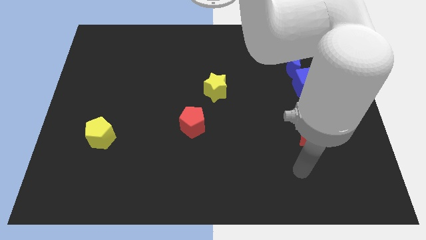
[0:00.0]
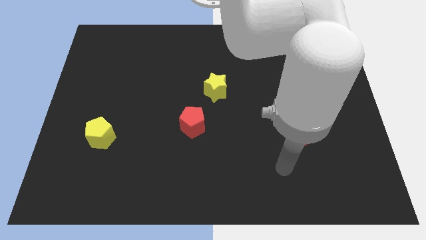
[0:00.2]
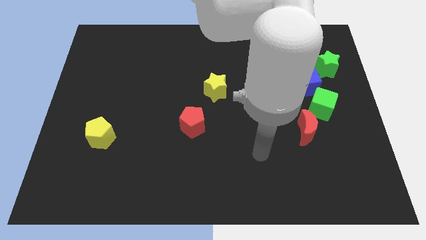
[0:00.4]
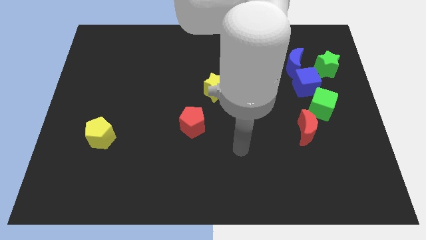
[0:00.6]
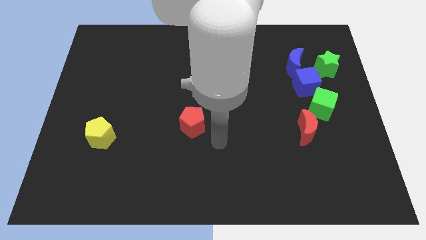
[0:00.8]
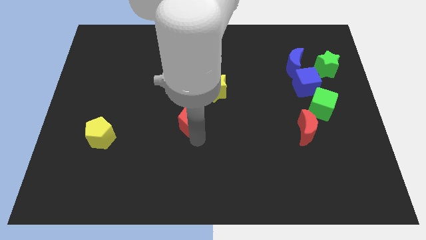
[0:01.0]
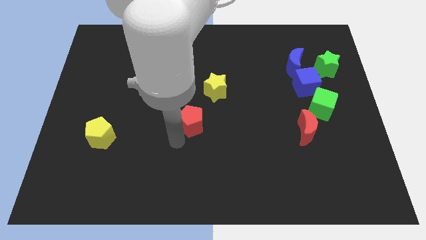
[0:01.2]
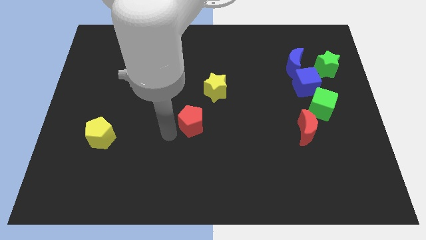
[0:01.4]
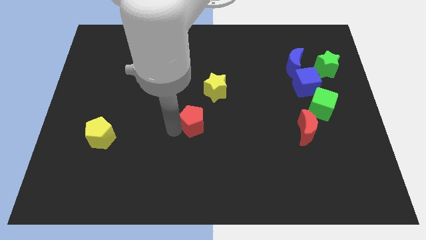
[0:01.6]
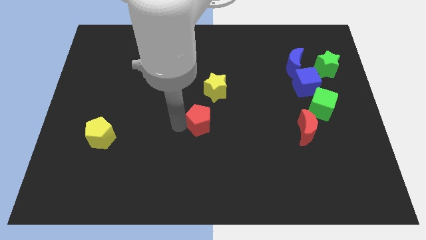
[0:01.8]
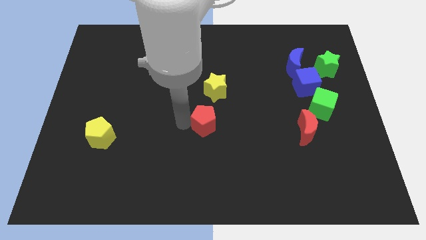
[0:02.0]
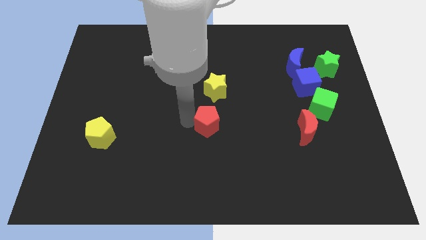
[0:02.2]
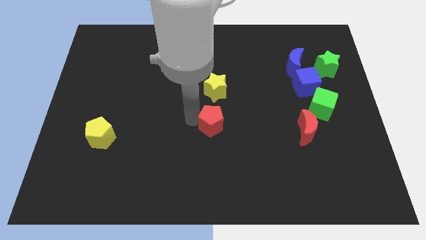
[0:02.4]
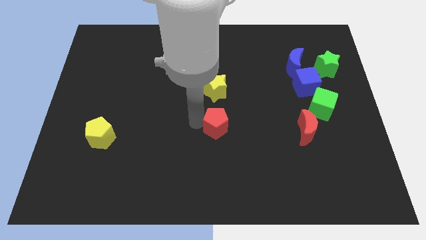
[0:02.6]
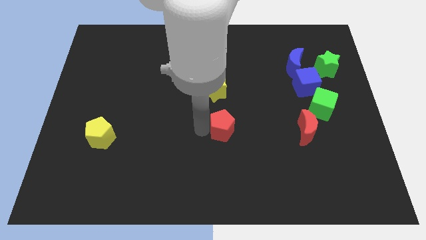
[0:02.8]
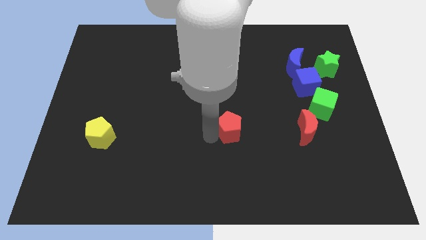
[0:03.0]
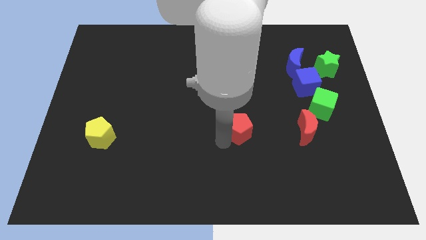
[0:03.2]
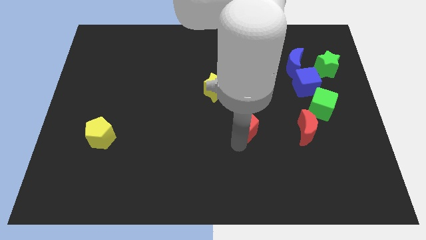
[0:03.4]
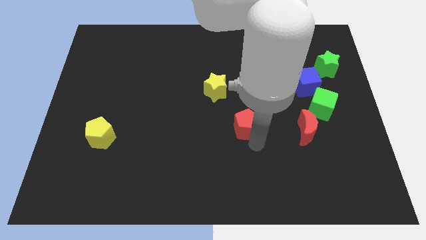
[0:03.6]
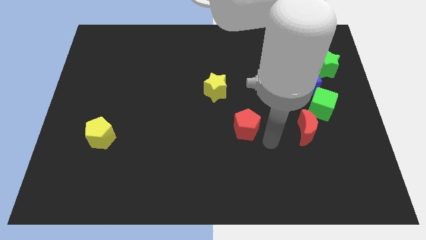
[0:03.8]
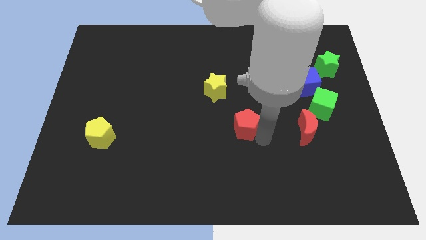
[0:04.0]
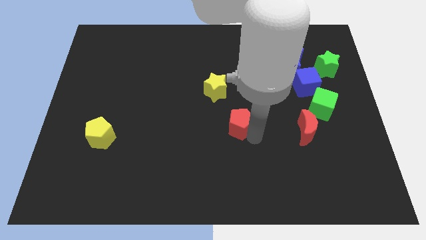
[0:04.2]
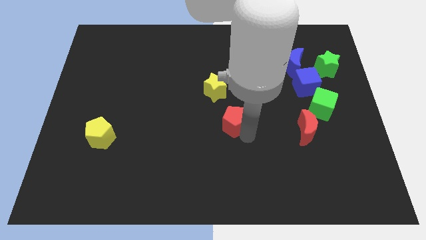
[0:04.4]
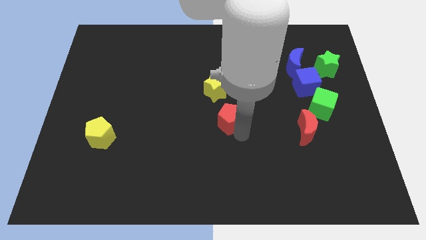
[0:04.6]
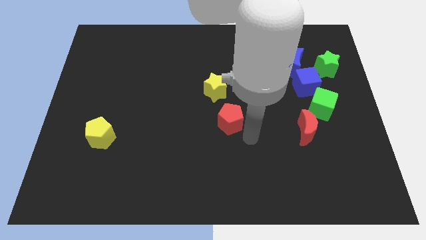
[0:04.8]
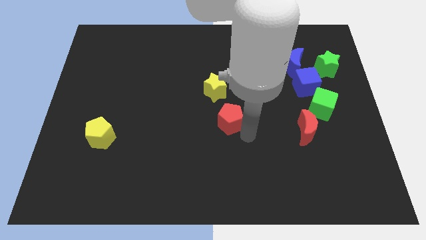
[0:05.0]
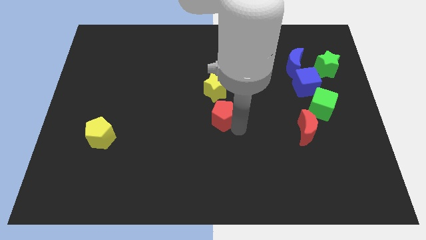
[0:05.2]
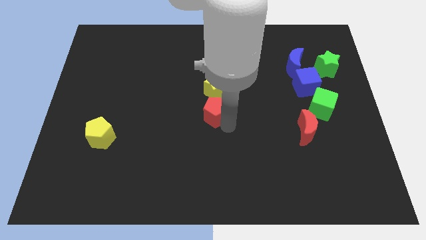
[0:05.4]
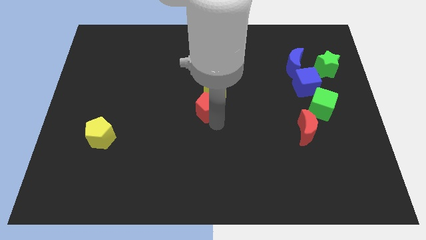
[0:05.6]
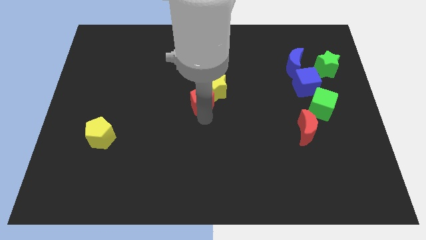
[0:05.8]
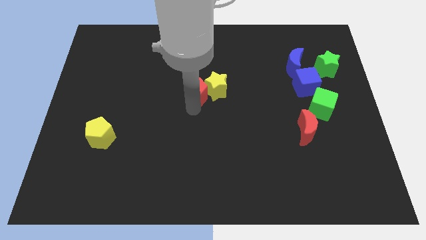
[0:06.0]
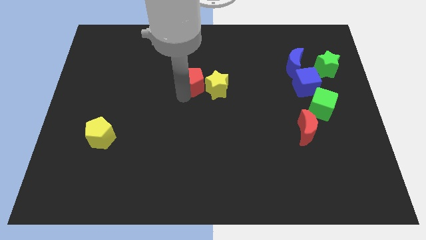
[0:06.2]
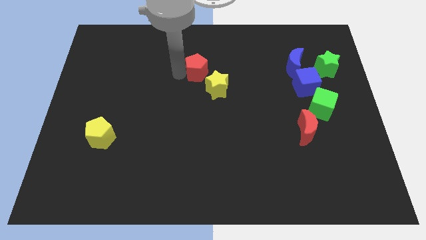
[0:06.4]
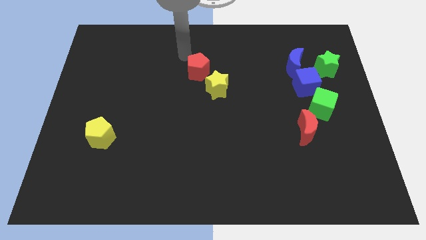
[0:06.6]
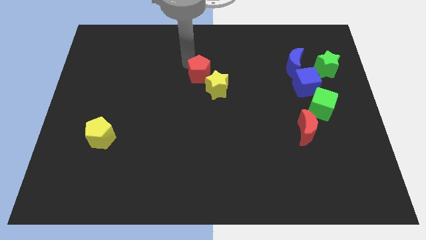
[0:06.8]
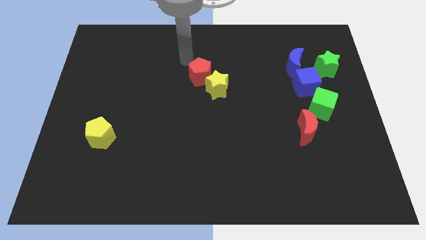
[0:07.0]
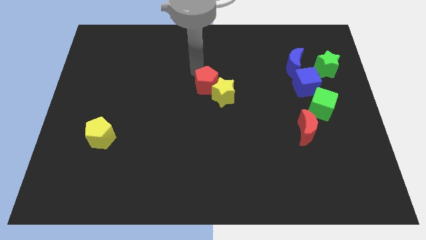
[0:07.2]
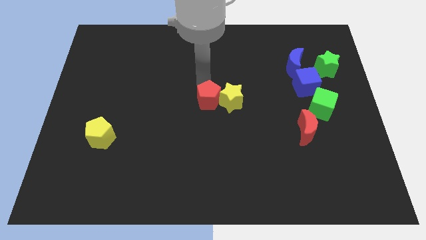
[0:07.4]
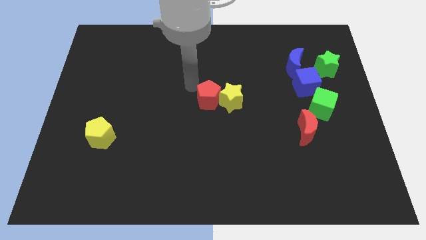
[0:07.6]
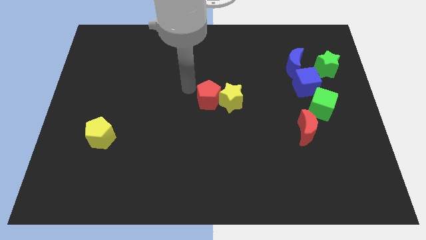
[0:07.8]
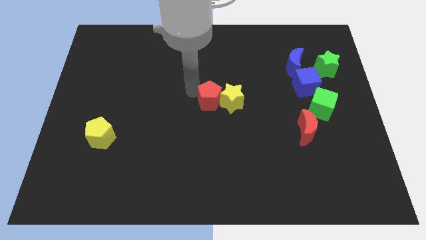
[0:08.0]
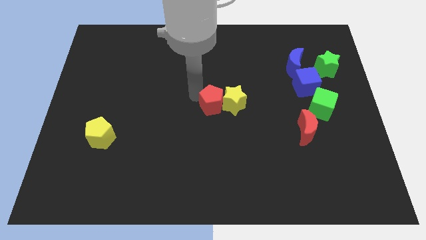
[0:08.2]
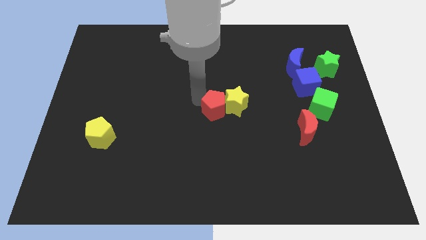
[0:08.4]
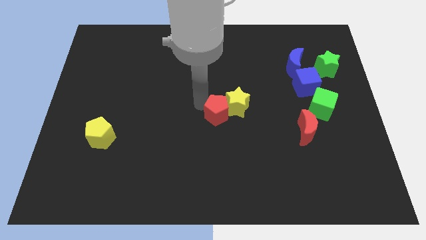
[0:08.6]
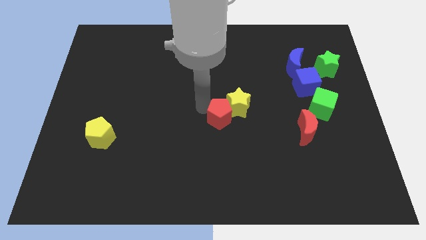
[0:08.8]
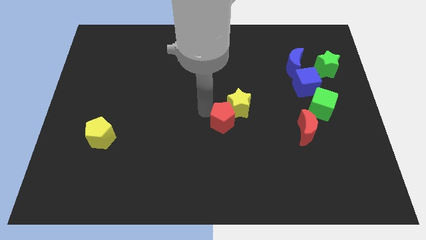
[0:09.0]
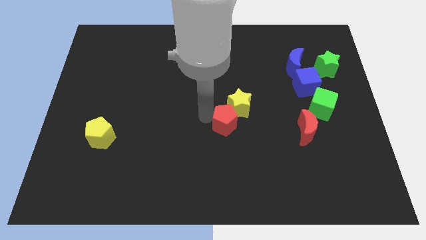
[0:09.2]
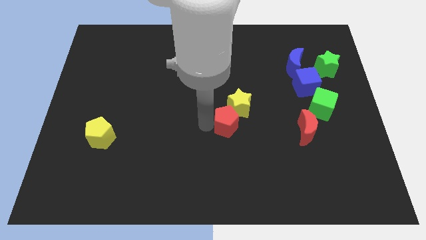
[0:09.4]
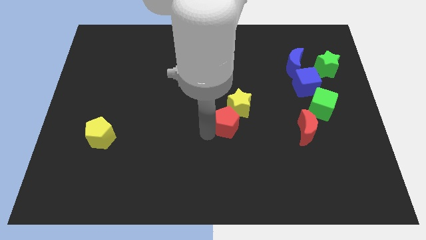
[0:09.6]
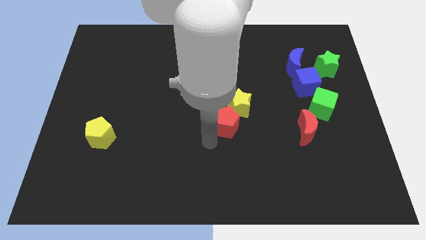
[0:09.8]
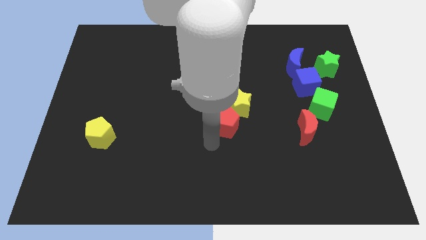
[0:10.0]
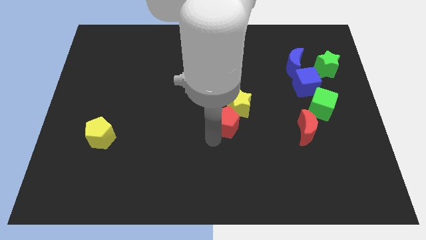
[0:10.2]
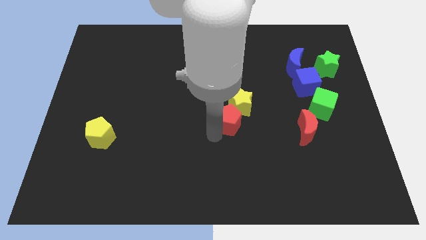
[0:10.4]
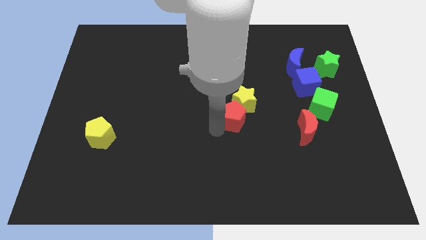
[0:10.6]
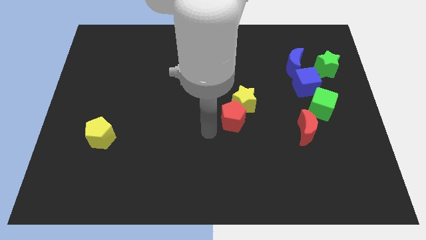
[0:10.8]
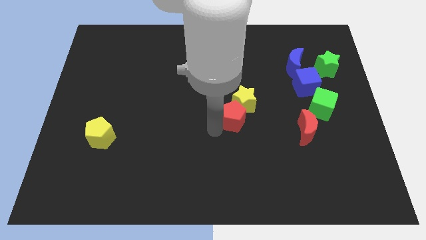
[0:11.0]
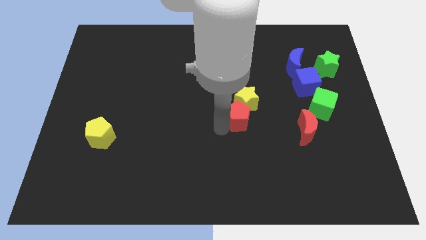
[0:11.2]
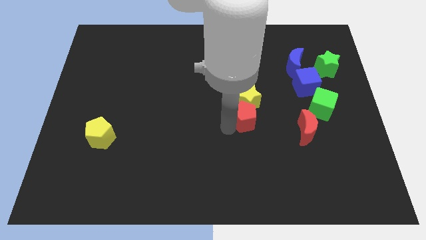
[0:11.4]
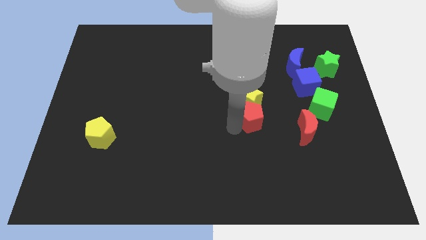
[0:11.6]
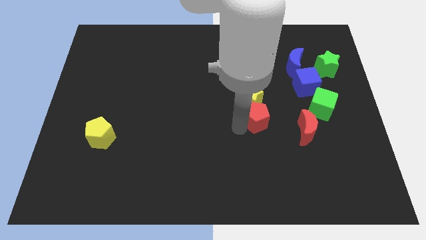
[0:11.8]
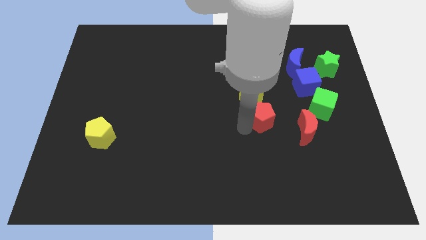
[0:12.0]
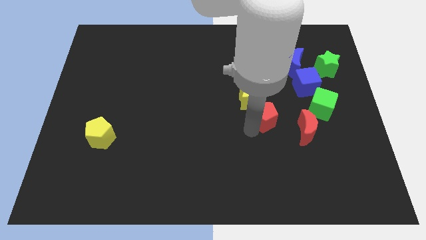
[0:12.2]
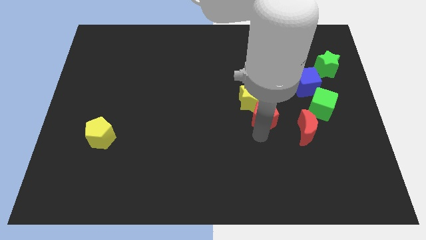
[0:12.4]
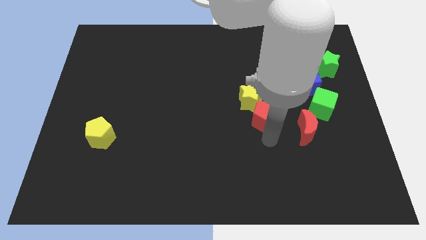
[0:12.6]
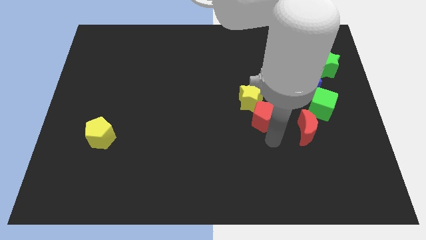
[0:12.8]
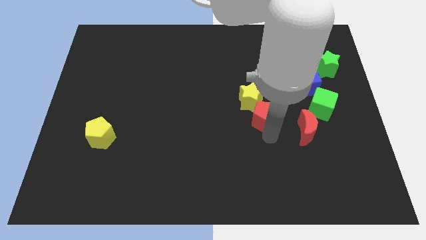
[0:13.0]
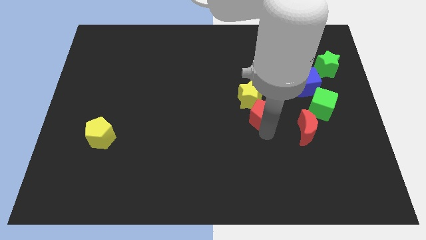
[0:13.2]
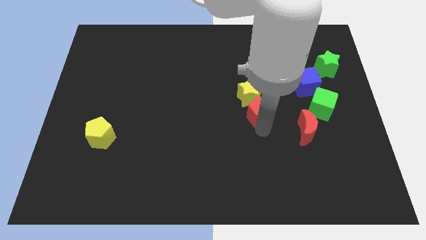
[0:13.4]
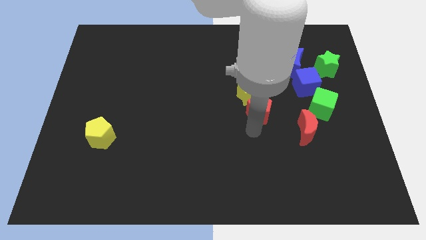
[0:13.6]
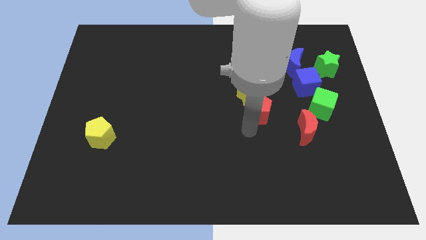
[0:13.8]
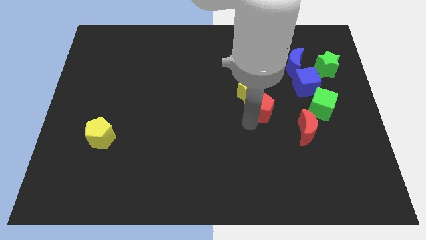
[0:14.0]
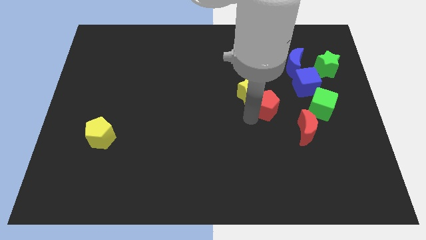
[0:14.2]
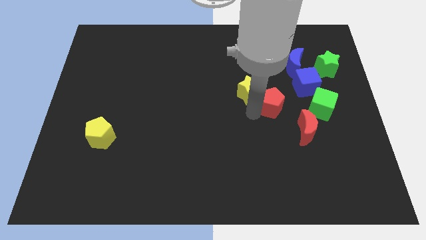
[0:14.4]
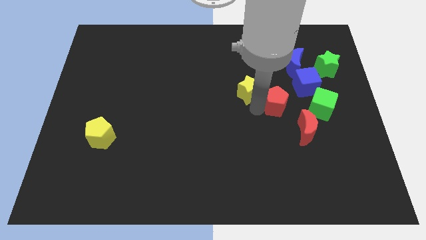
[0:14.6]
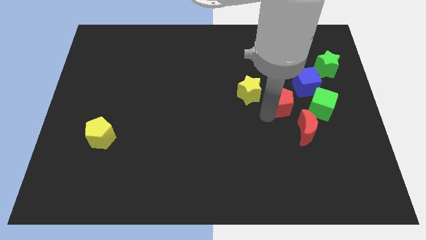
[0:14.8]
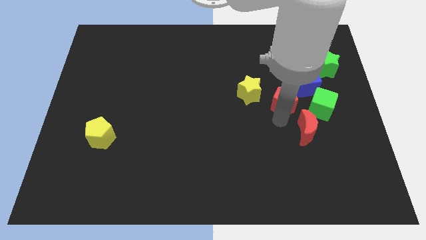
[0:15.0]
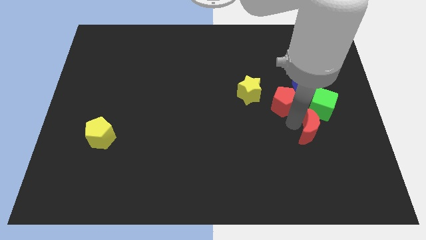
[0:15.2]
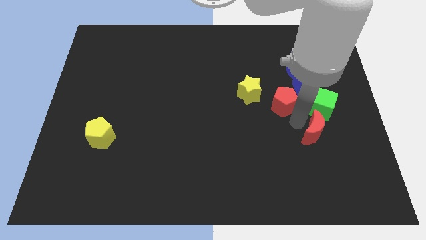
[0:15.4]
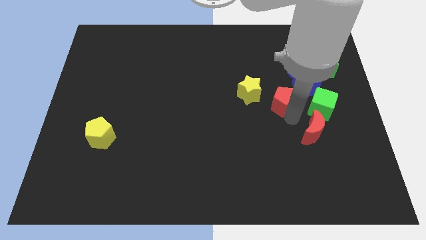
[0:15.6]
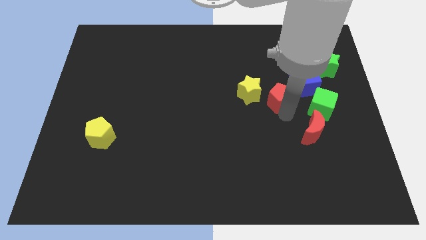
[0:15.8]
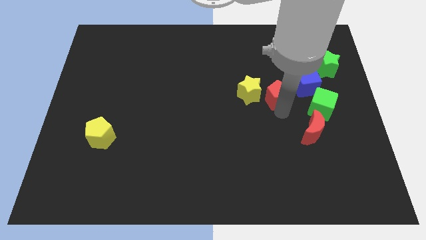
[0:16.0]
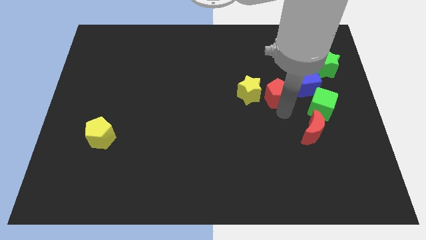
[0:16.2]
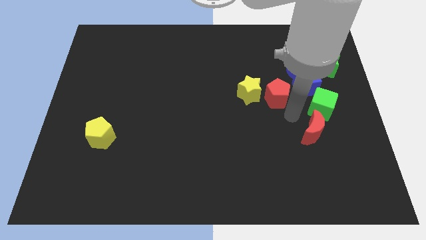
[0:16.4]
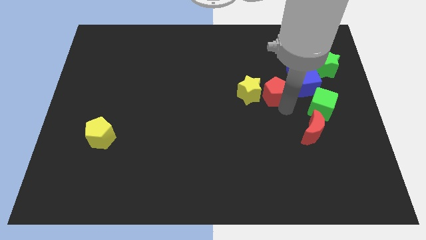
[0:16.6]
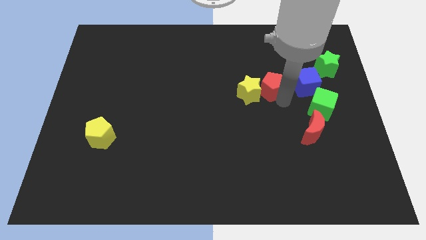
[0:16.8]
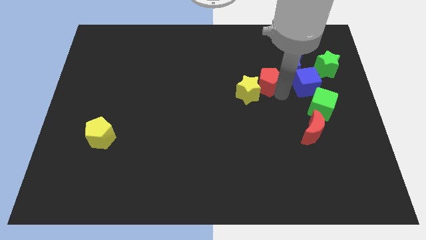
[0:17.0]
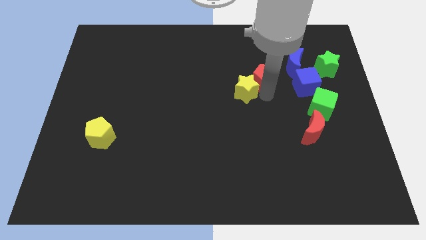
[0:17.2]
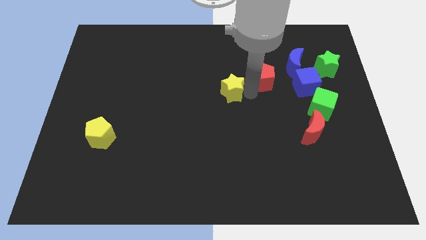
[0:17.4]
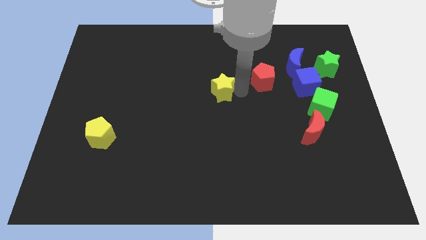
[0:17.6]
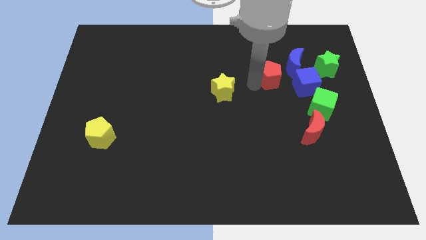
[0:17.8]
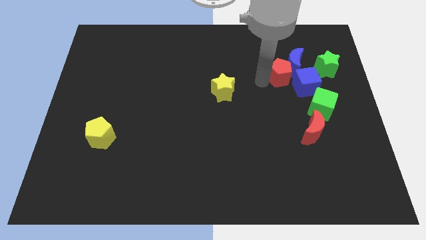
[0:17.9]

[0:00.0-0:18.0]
slide the red pentagon next to the blue moon
